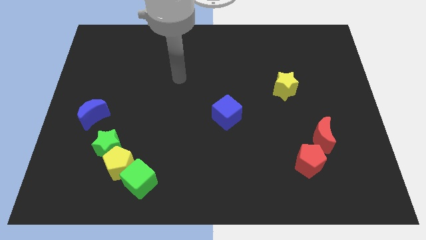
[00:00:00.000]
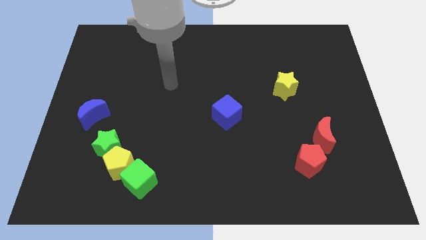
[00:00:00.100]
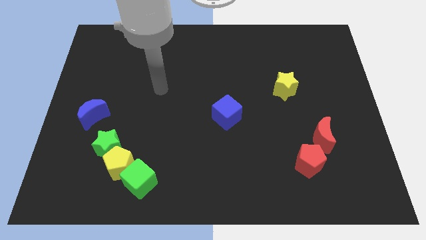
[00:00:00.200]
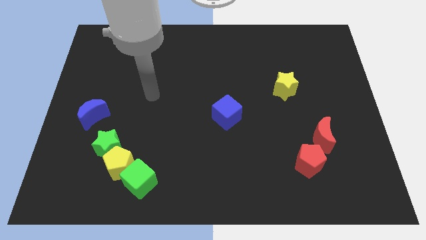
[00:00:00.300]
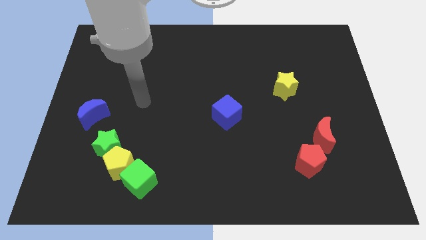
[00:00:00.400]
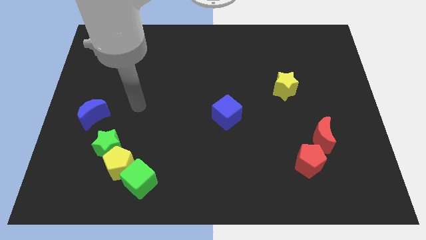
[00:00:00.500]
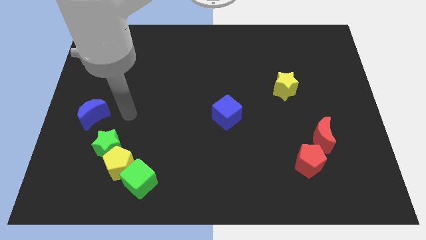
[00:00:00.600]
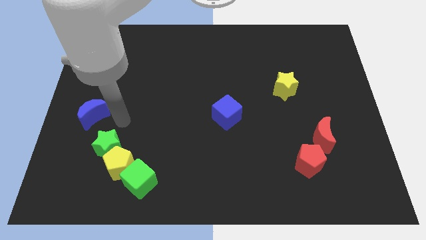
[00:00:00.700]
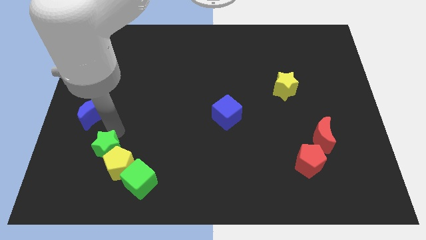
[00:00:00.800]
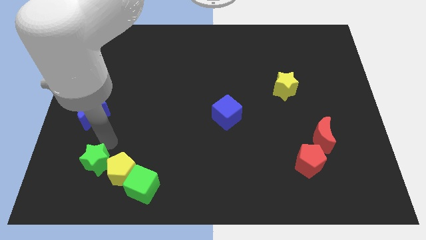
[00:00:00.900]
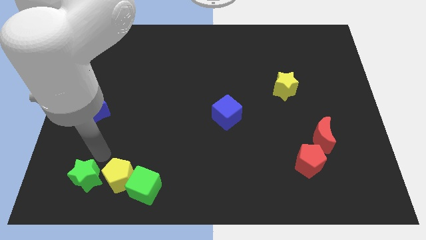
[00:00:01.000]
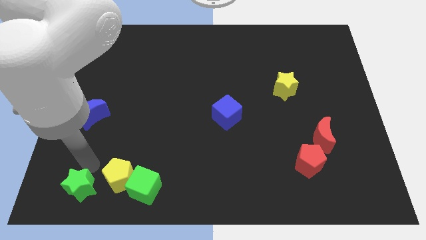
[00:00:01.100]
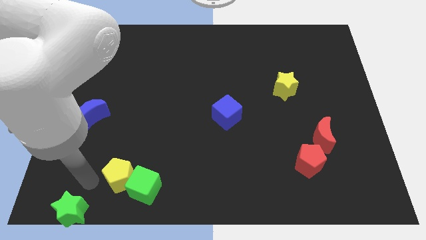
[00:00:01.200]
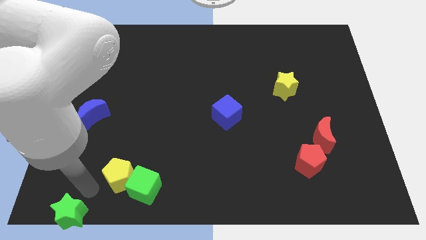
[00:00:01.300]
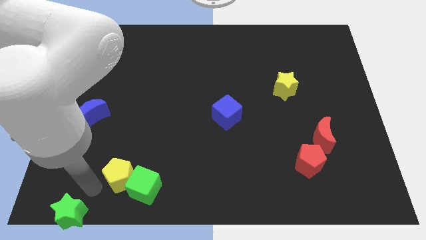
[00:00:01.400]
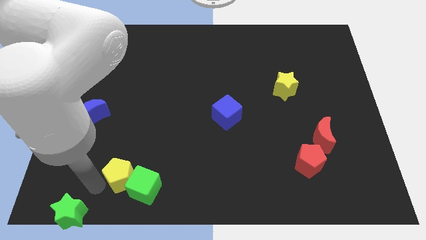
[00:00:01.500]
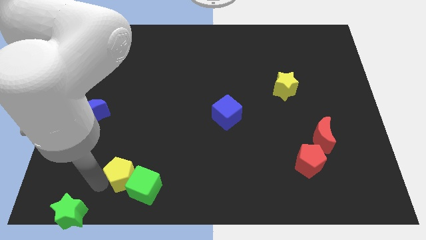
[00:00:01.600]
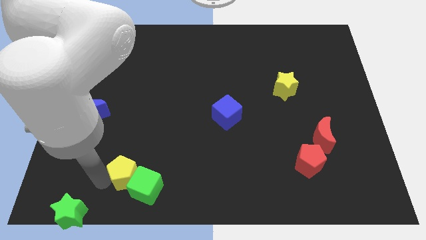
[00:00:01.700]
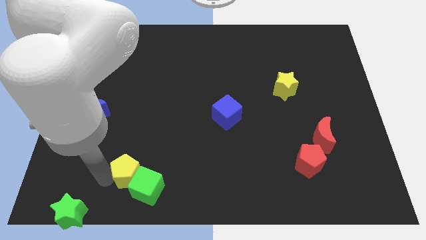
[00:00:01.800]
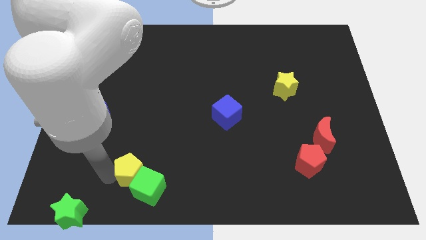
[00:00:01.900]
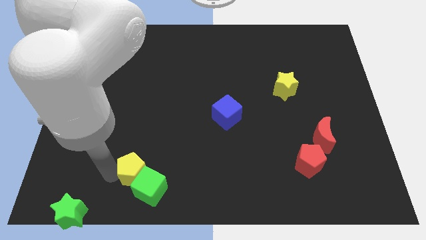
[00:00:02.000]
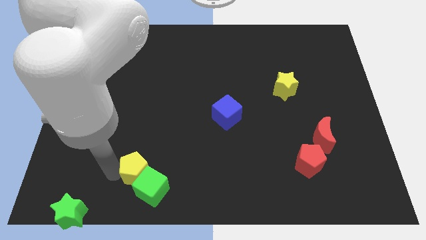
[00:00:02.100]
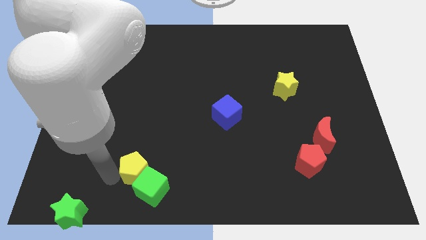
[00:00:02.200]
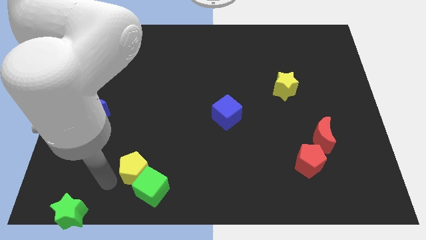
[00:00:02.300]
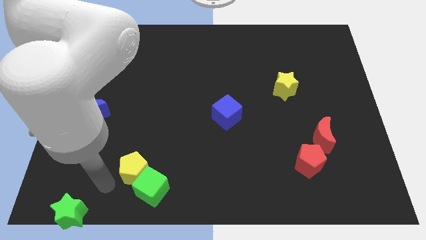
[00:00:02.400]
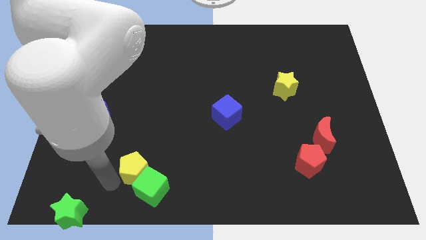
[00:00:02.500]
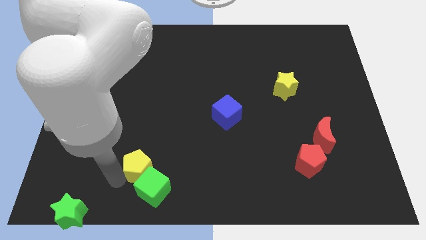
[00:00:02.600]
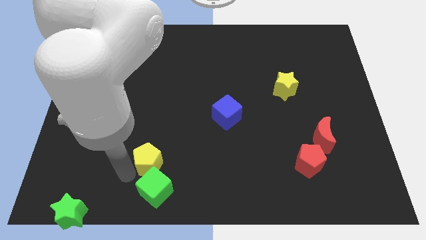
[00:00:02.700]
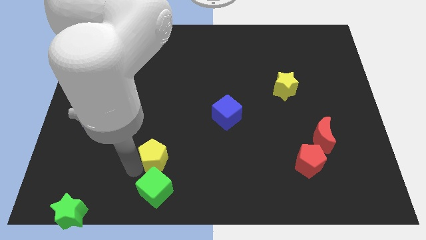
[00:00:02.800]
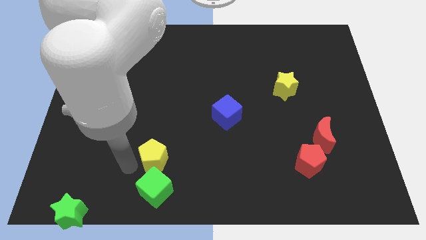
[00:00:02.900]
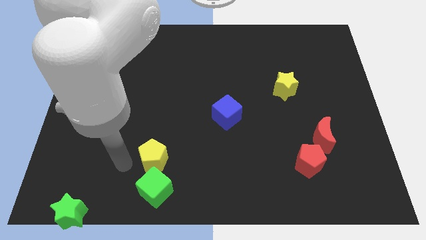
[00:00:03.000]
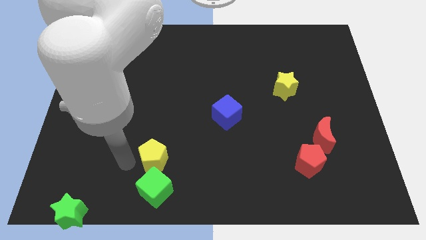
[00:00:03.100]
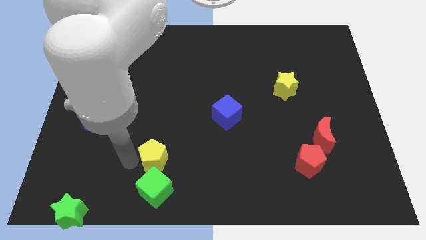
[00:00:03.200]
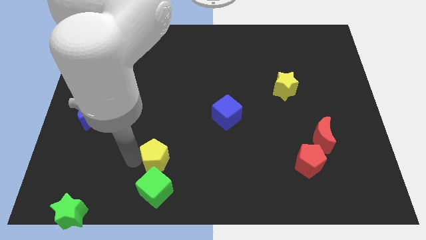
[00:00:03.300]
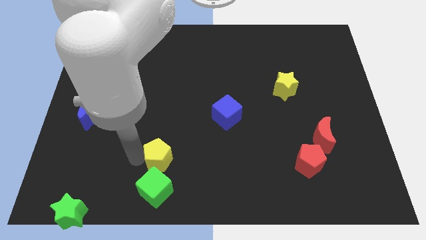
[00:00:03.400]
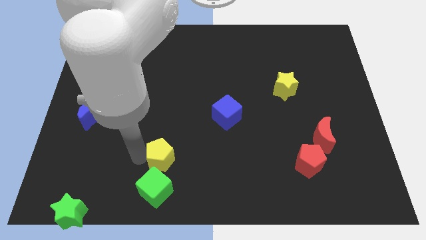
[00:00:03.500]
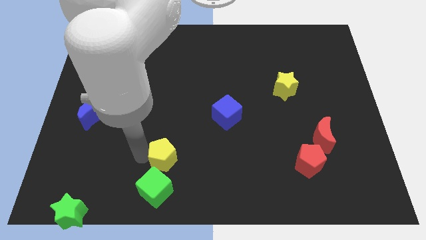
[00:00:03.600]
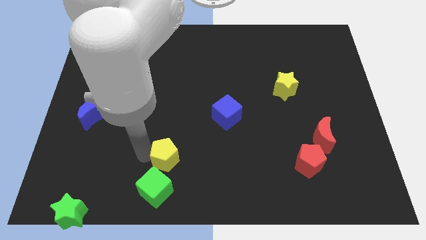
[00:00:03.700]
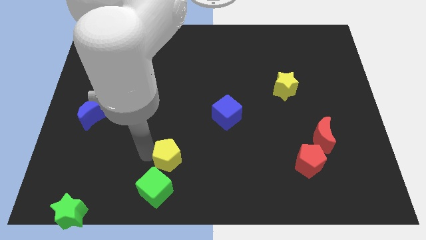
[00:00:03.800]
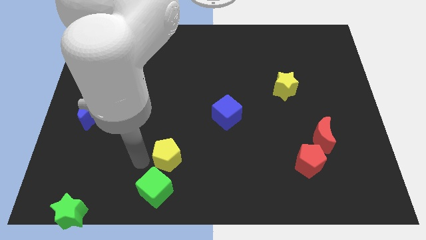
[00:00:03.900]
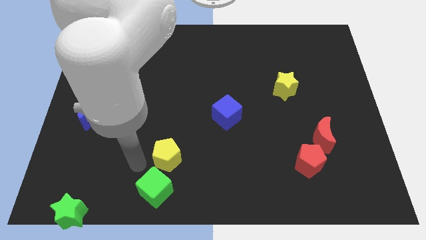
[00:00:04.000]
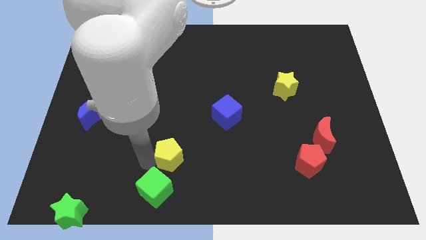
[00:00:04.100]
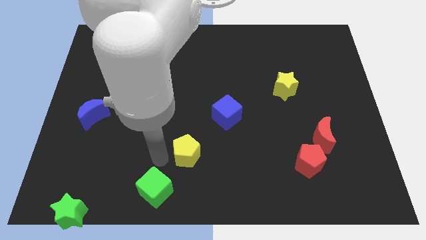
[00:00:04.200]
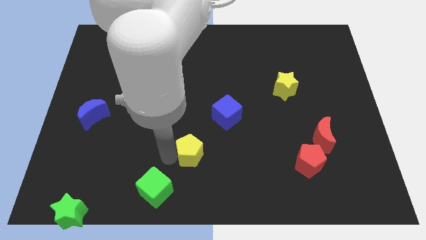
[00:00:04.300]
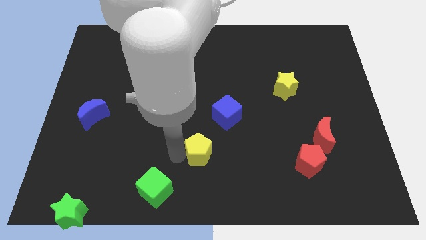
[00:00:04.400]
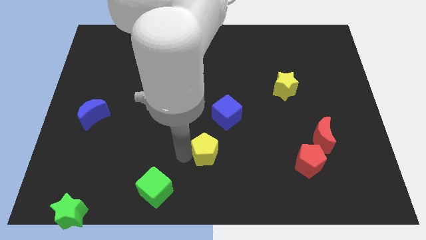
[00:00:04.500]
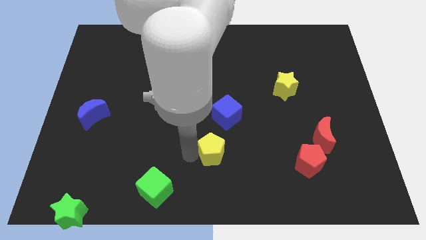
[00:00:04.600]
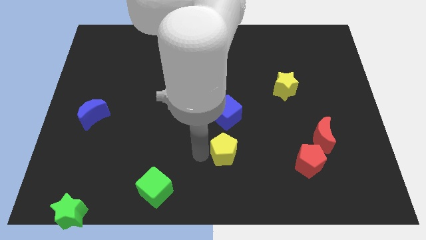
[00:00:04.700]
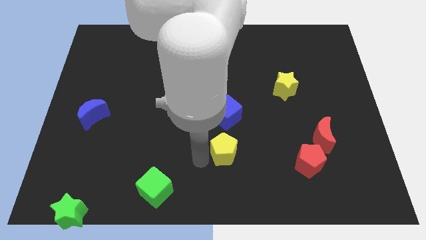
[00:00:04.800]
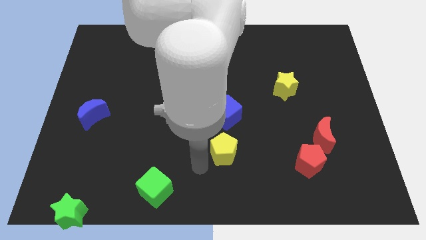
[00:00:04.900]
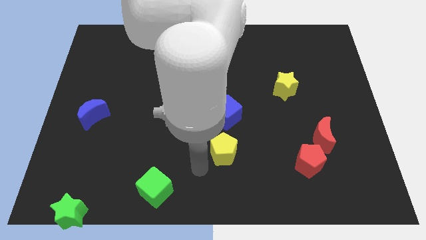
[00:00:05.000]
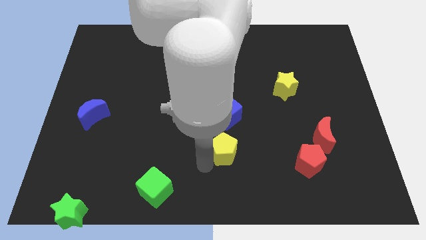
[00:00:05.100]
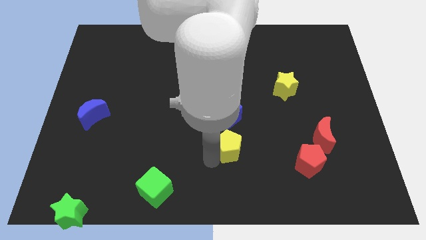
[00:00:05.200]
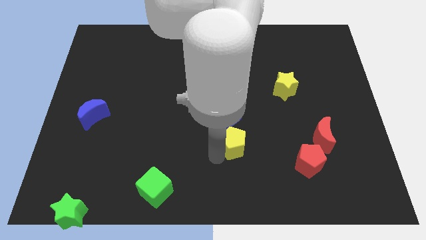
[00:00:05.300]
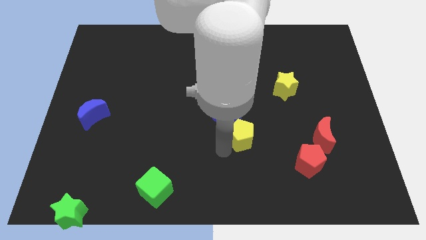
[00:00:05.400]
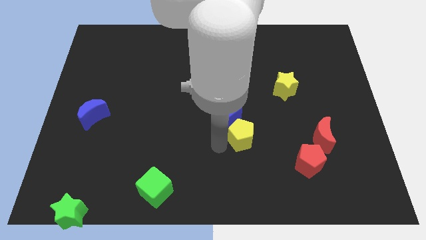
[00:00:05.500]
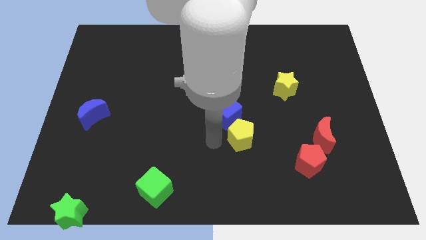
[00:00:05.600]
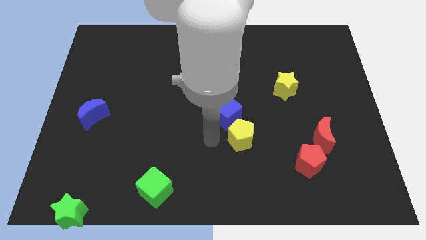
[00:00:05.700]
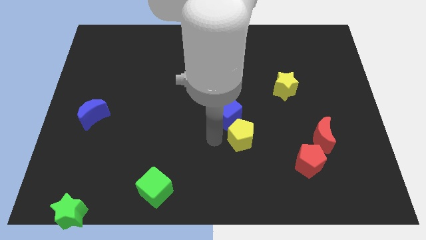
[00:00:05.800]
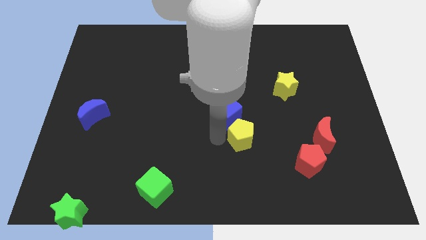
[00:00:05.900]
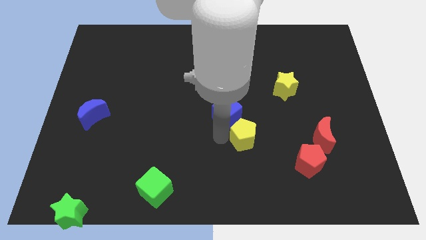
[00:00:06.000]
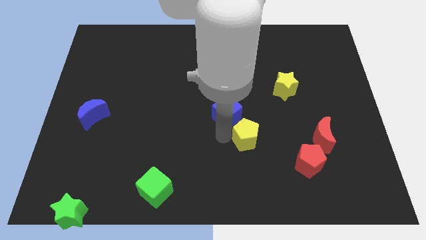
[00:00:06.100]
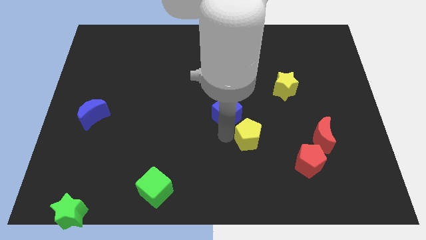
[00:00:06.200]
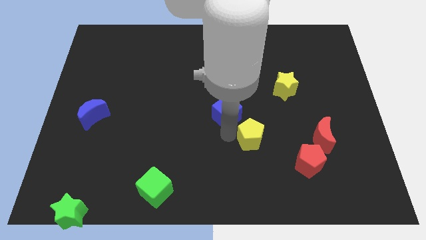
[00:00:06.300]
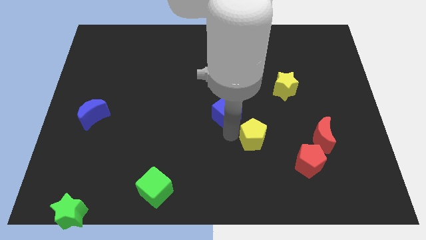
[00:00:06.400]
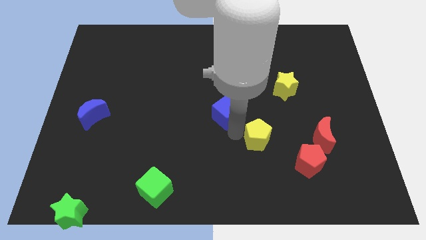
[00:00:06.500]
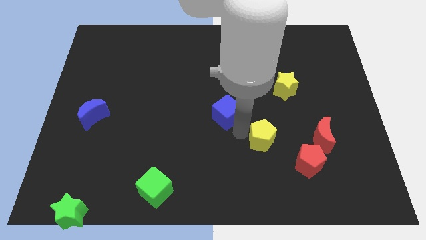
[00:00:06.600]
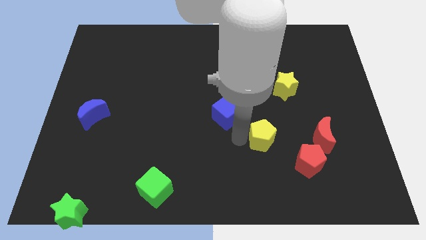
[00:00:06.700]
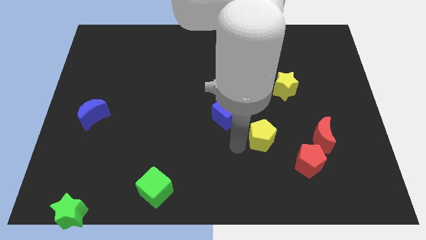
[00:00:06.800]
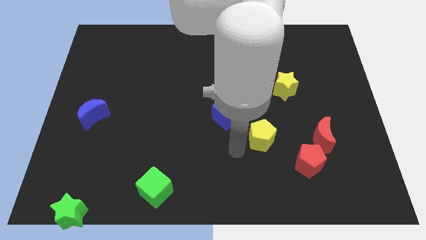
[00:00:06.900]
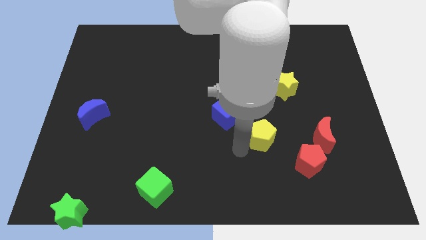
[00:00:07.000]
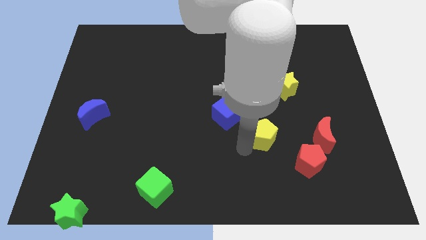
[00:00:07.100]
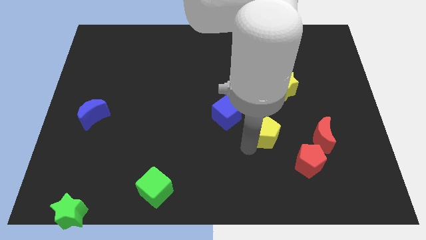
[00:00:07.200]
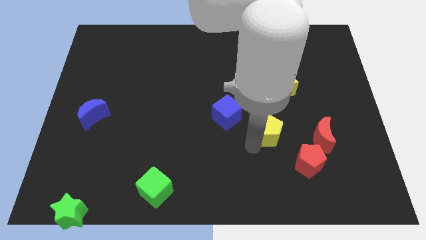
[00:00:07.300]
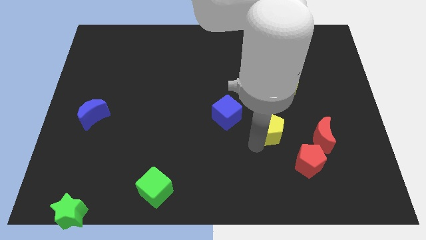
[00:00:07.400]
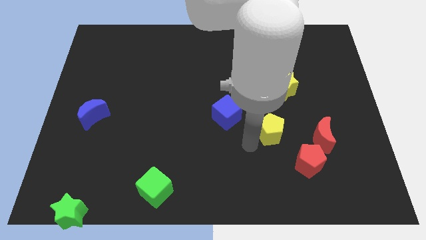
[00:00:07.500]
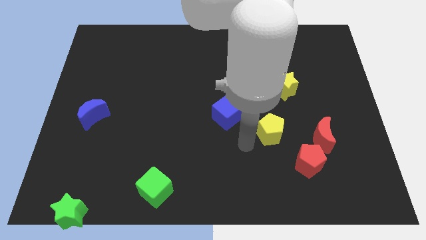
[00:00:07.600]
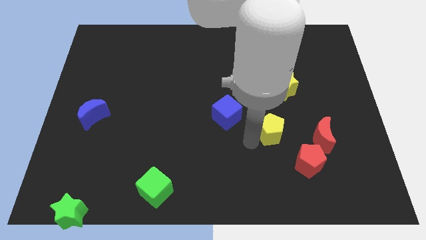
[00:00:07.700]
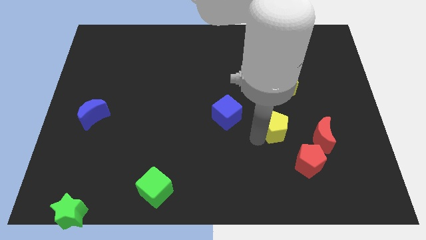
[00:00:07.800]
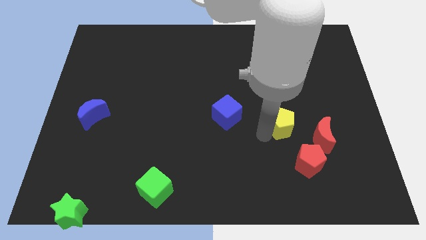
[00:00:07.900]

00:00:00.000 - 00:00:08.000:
move the yellow pentagon diagonally up and to the left of the red moon
